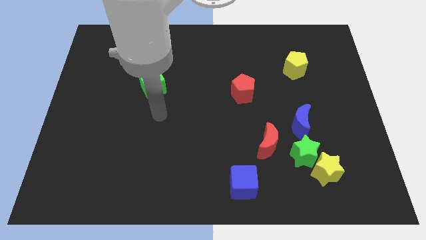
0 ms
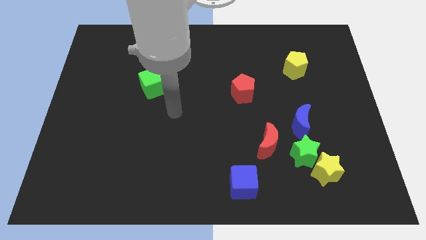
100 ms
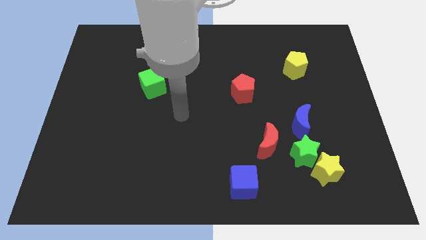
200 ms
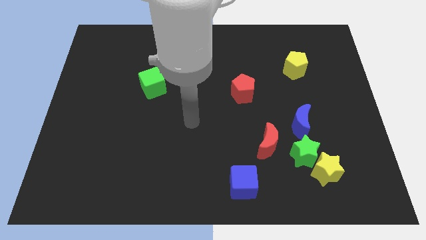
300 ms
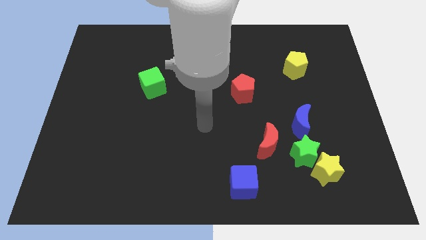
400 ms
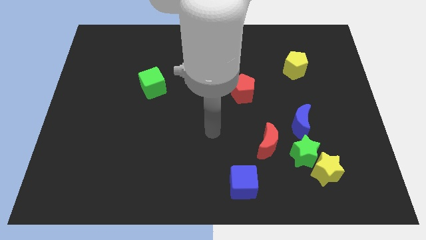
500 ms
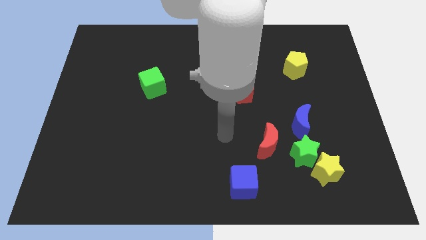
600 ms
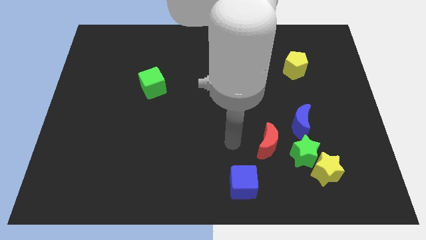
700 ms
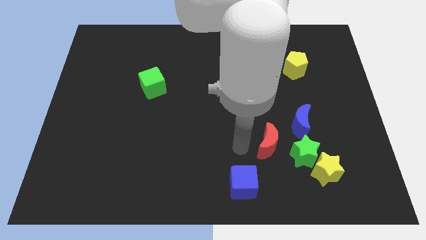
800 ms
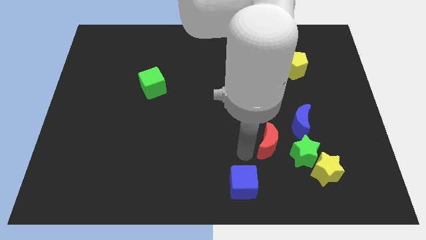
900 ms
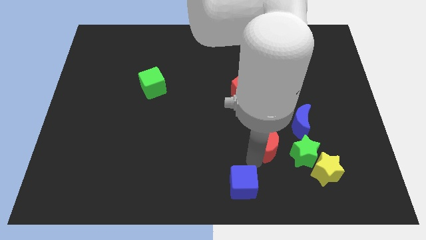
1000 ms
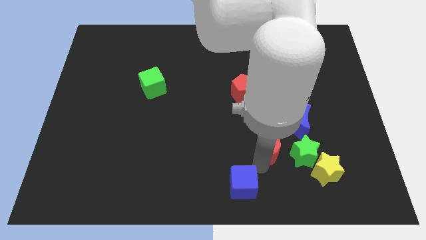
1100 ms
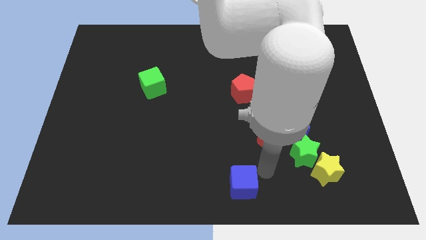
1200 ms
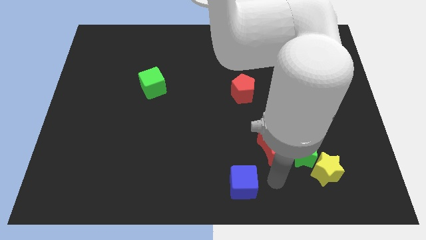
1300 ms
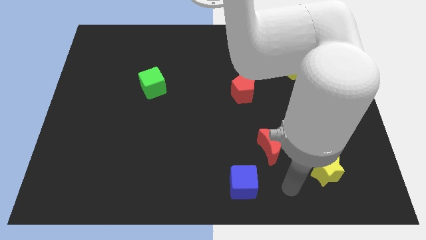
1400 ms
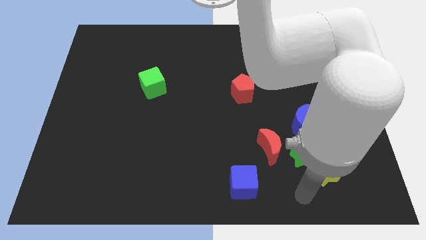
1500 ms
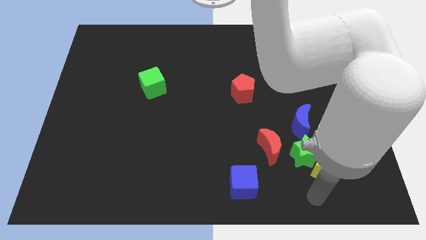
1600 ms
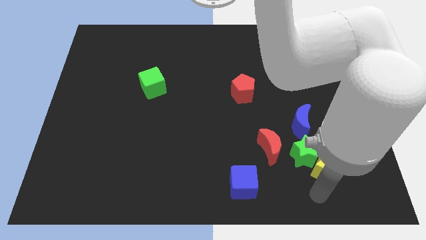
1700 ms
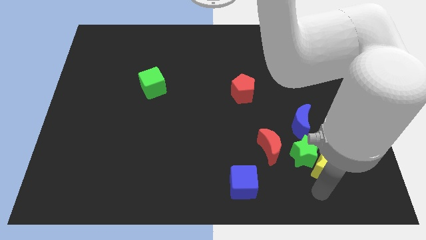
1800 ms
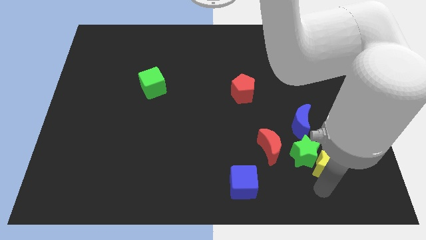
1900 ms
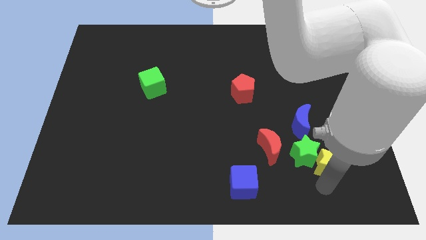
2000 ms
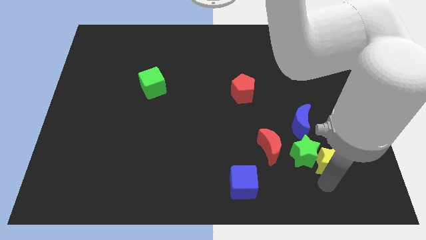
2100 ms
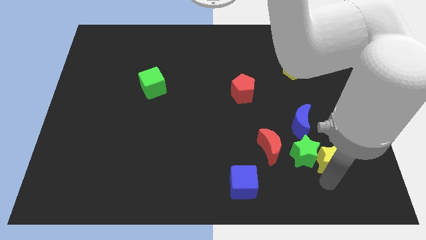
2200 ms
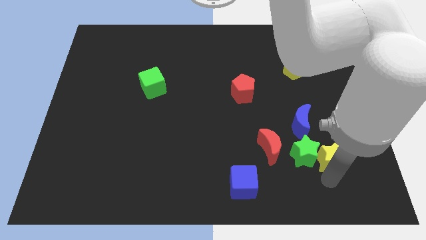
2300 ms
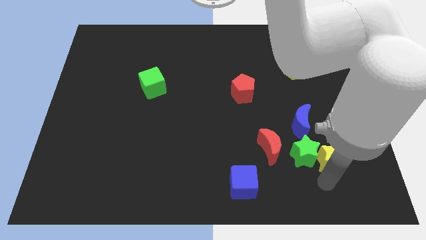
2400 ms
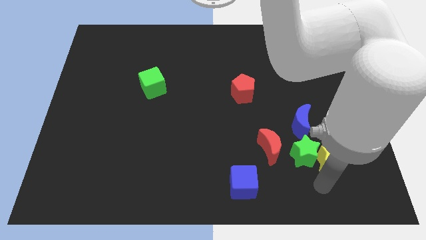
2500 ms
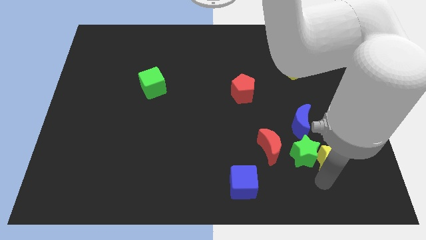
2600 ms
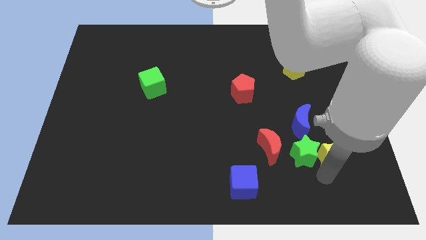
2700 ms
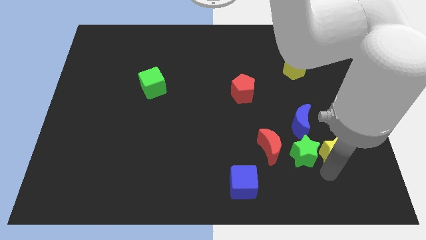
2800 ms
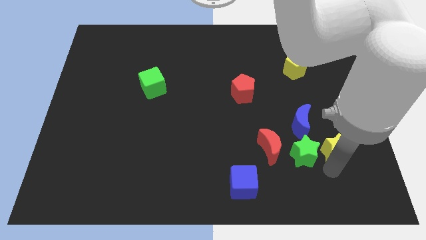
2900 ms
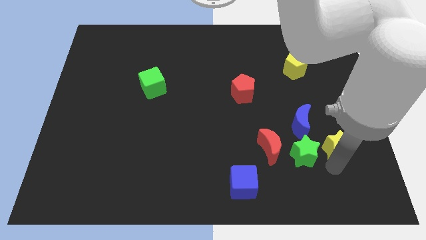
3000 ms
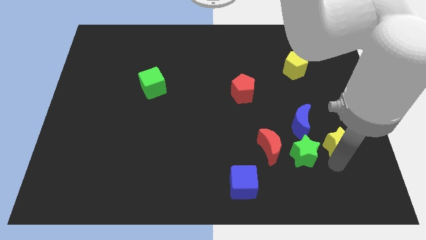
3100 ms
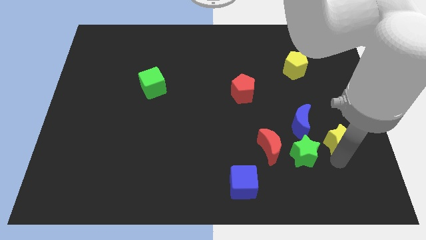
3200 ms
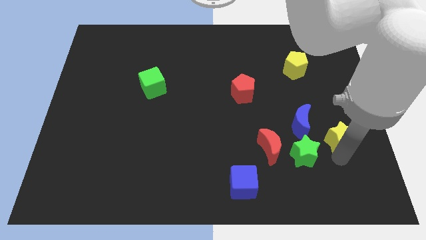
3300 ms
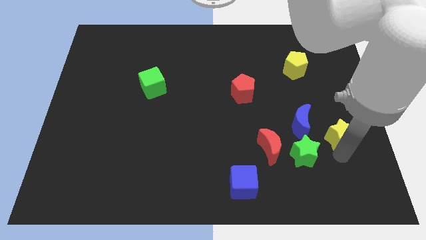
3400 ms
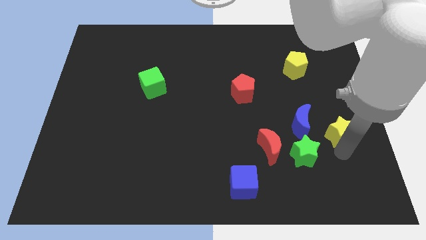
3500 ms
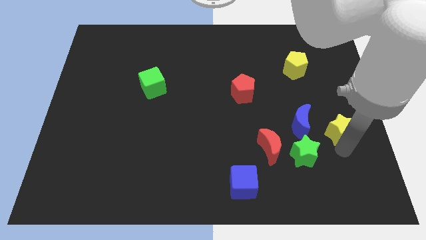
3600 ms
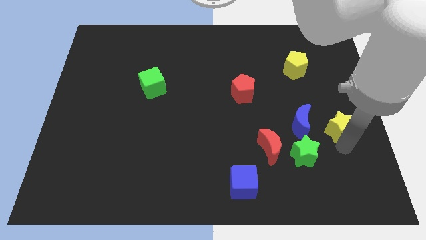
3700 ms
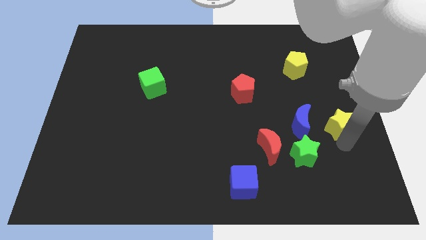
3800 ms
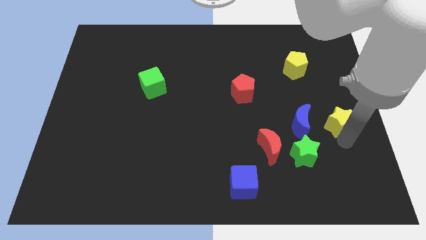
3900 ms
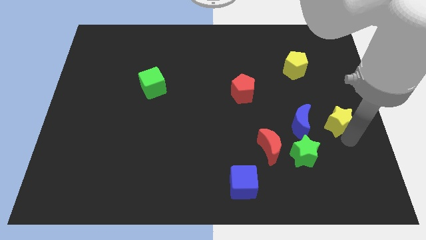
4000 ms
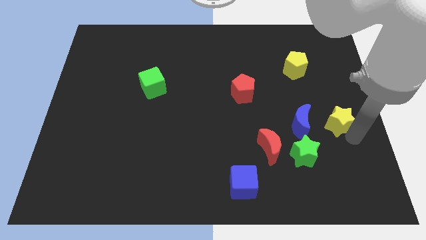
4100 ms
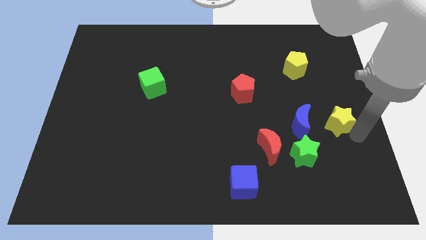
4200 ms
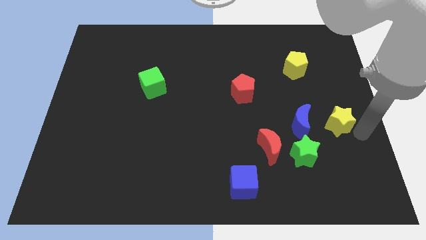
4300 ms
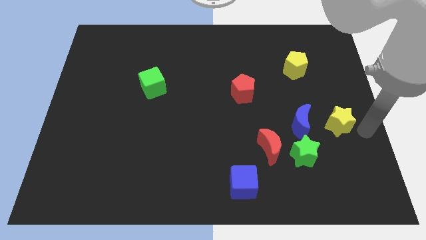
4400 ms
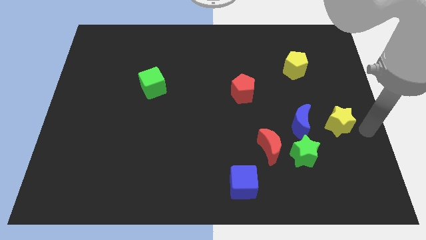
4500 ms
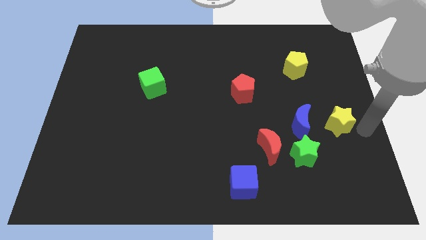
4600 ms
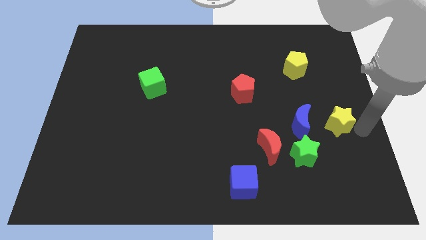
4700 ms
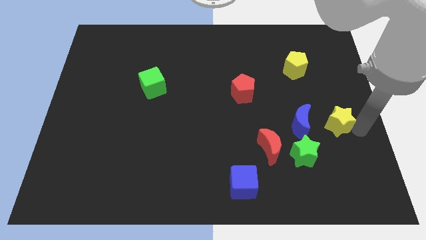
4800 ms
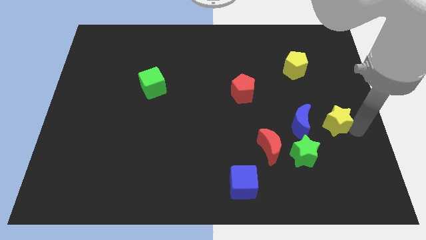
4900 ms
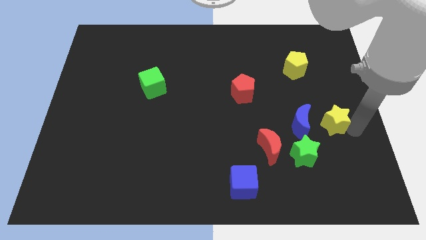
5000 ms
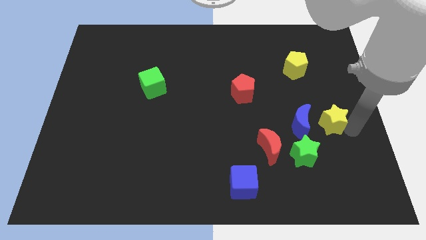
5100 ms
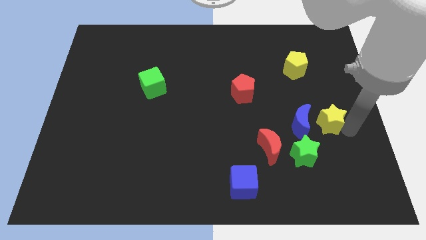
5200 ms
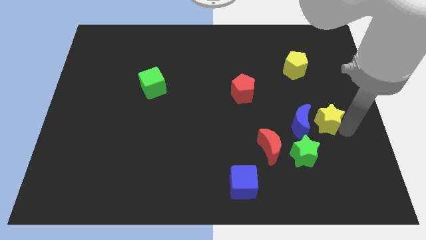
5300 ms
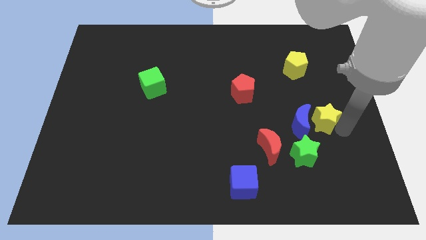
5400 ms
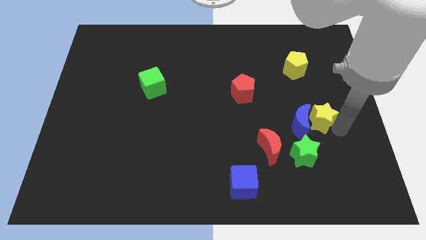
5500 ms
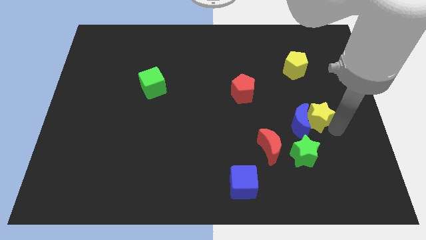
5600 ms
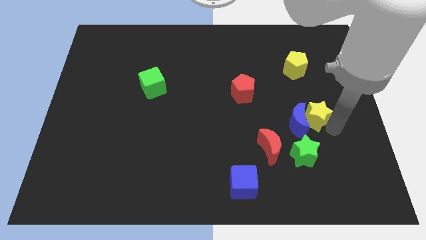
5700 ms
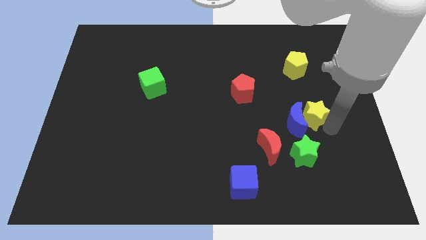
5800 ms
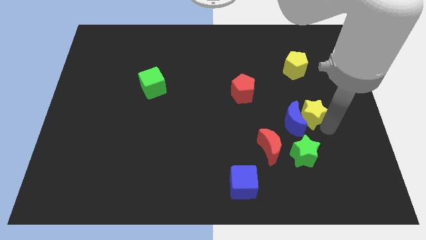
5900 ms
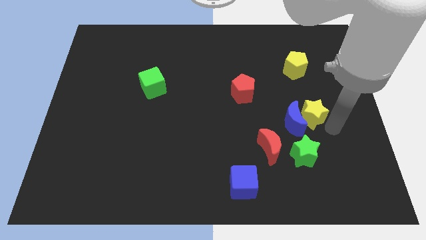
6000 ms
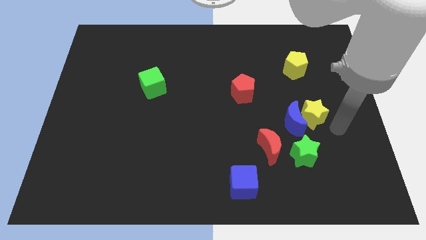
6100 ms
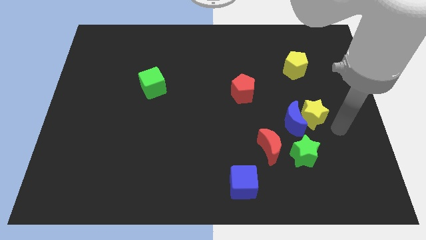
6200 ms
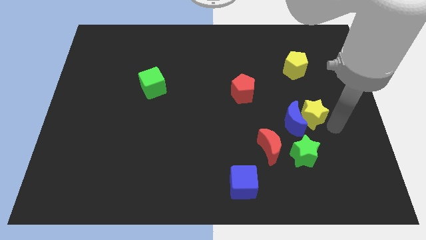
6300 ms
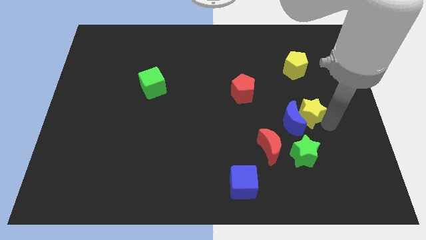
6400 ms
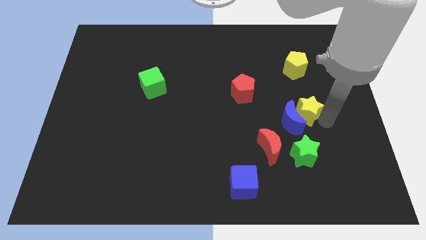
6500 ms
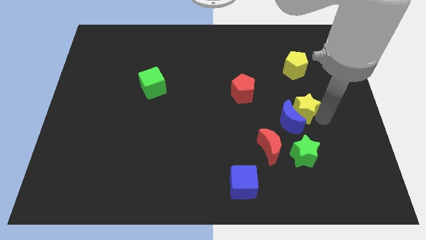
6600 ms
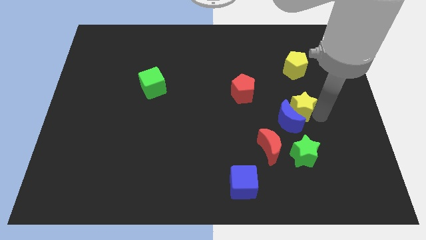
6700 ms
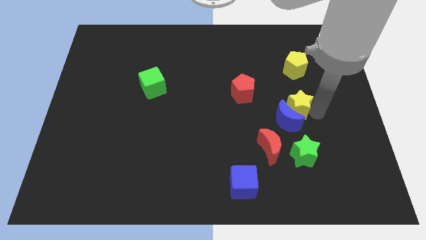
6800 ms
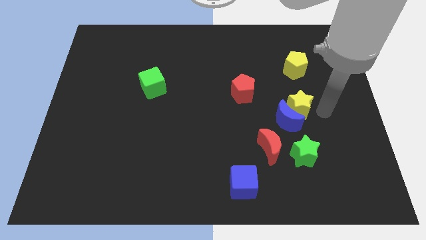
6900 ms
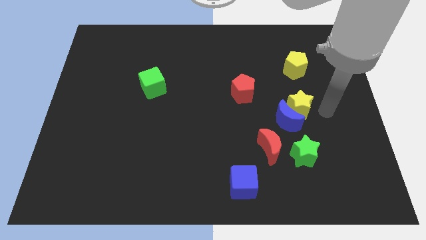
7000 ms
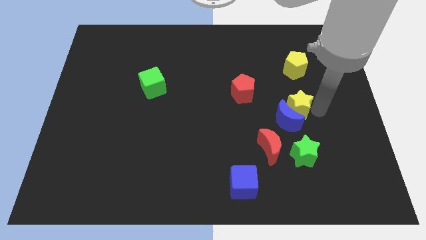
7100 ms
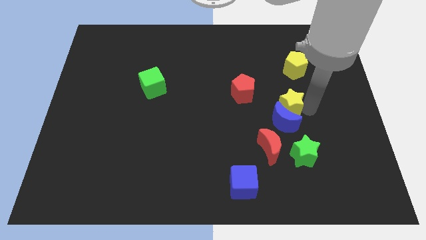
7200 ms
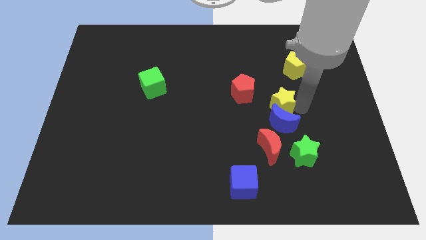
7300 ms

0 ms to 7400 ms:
move the yellow star diagonally up and to the left of the blue moon
